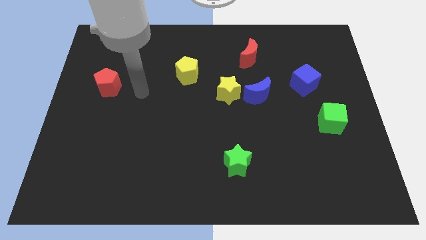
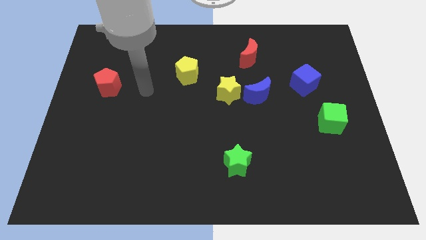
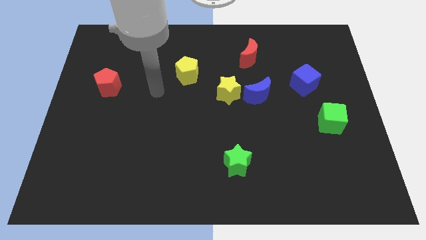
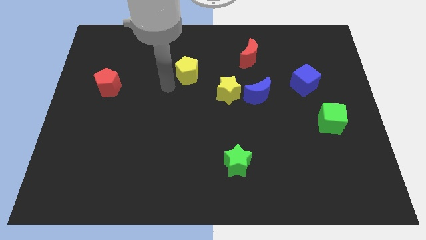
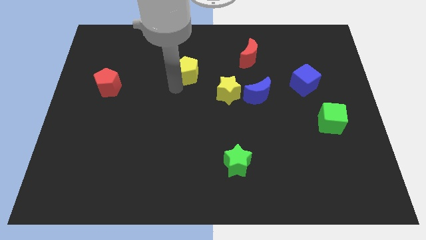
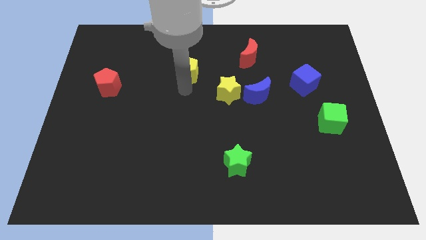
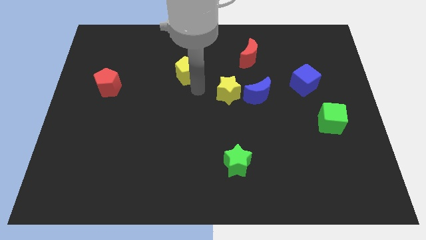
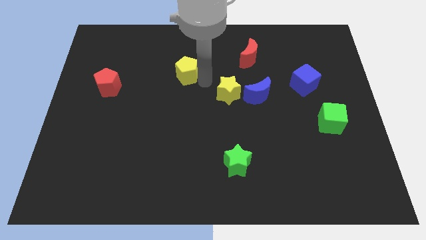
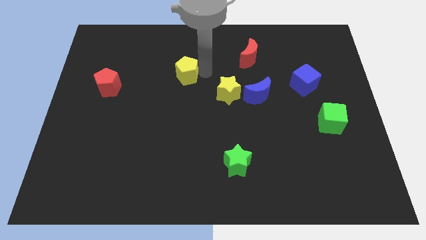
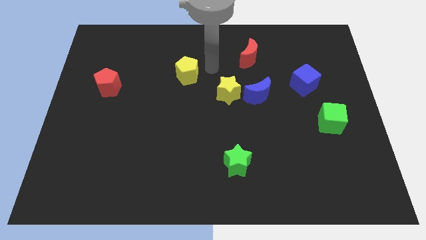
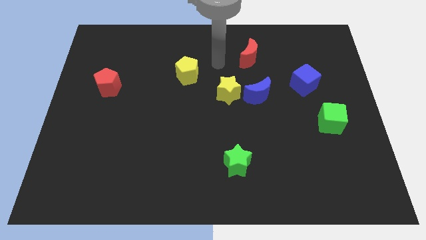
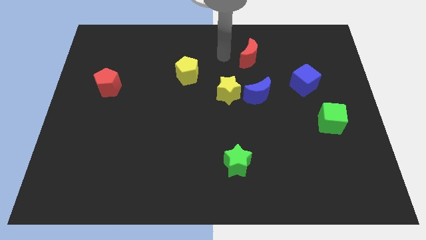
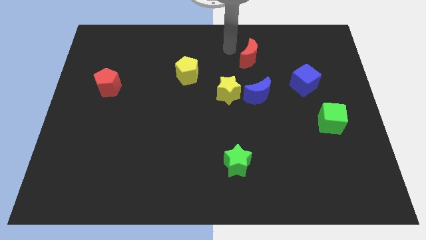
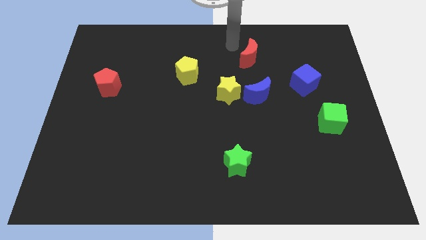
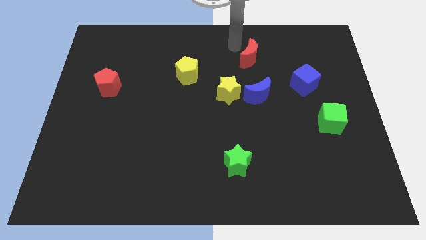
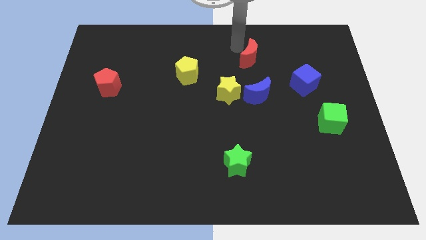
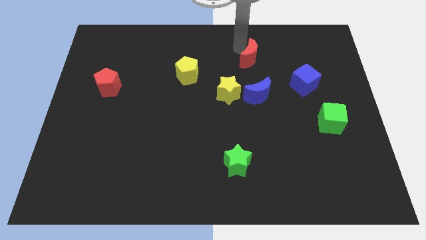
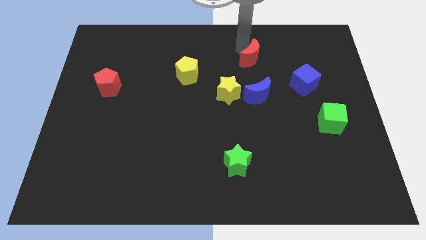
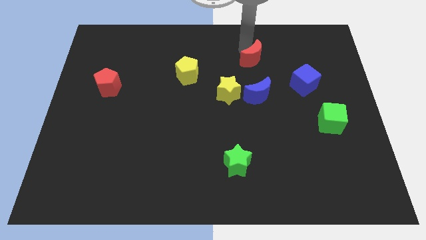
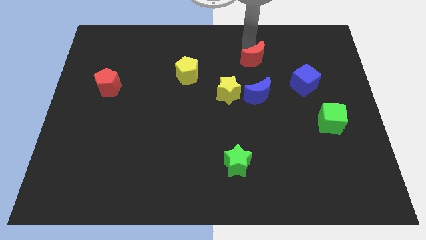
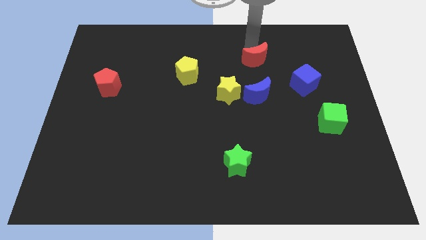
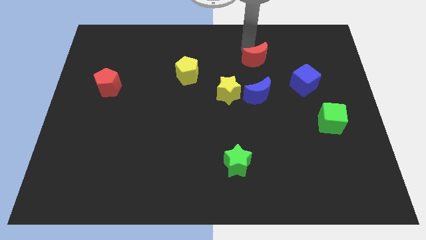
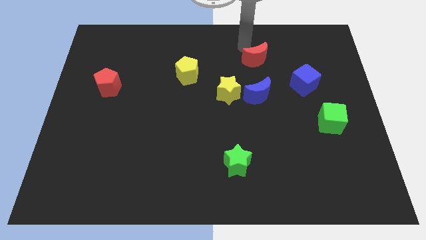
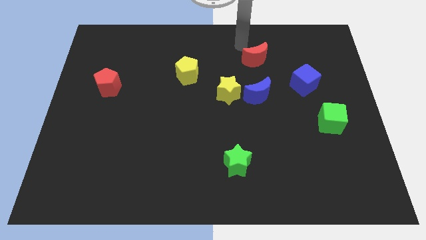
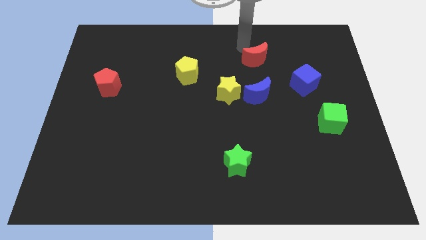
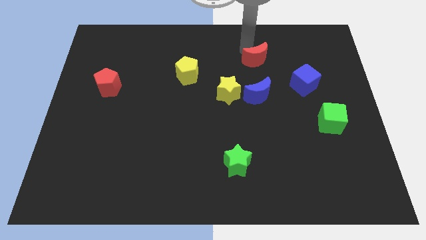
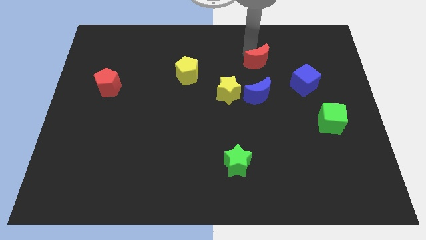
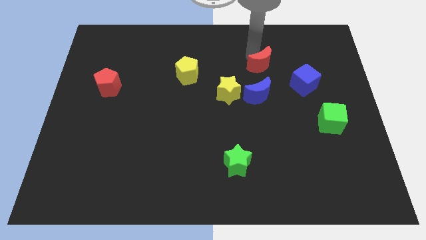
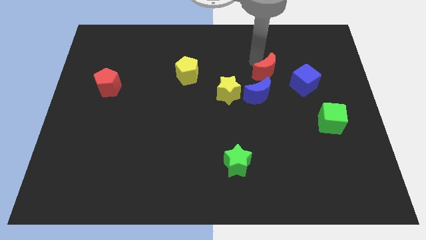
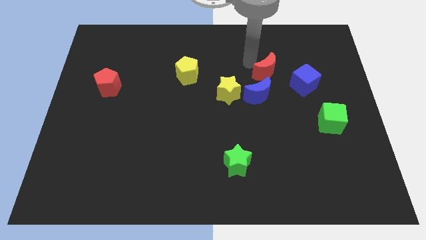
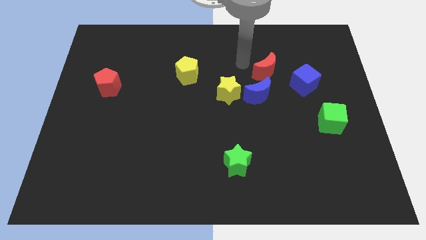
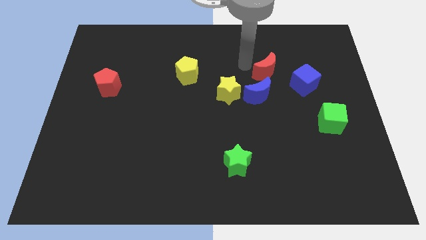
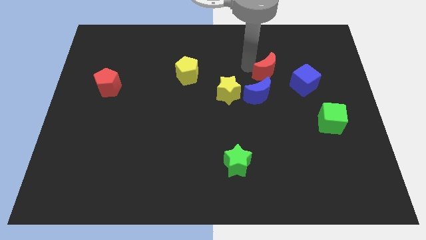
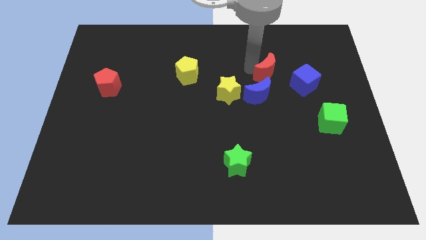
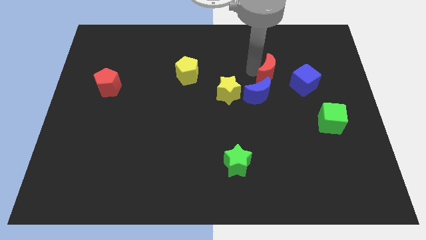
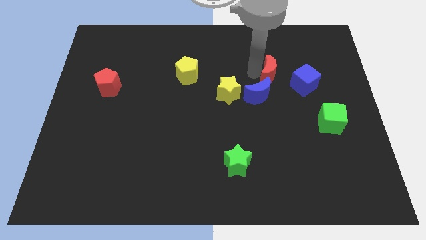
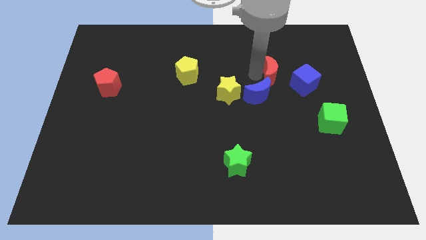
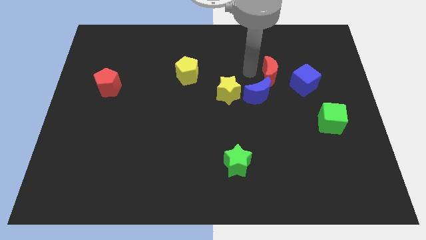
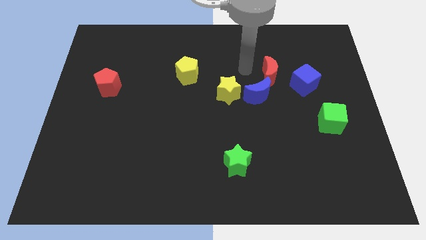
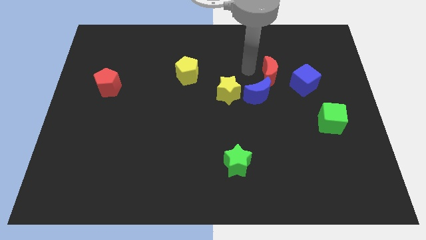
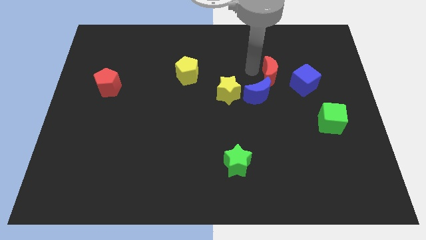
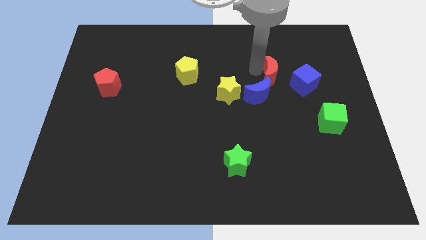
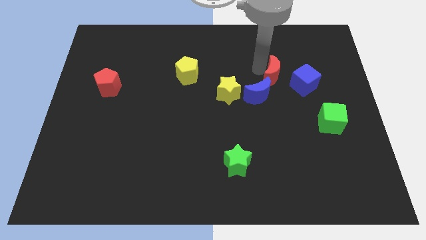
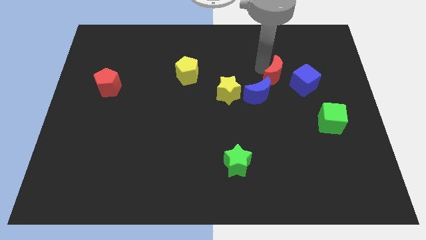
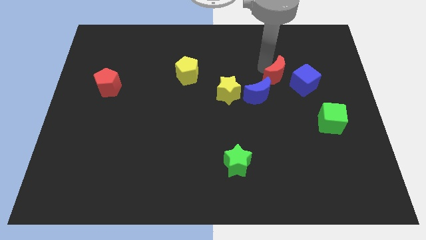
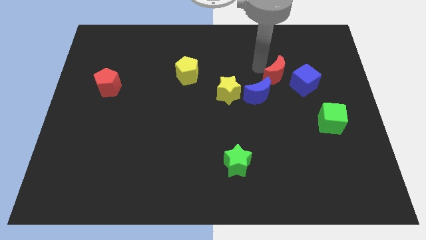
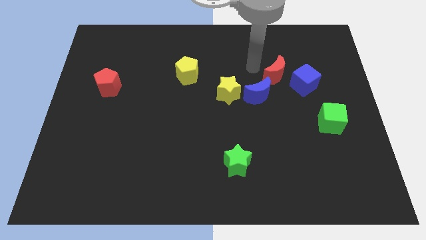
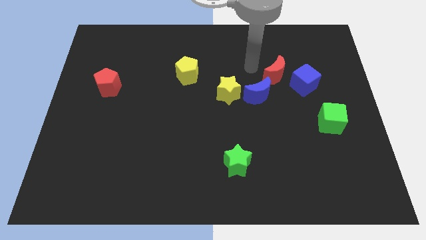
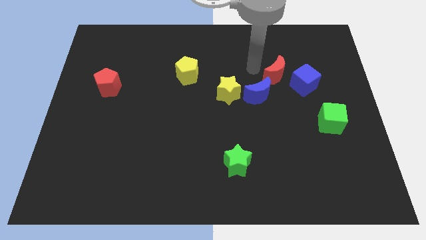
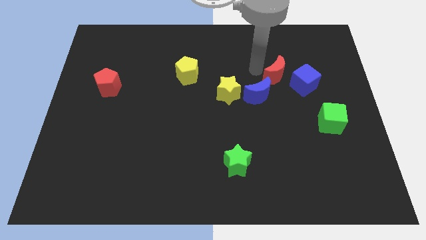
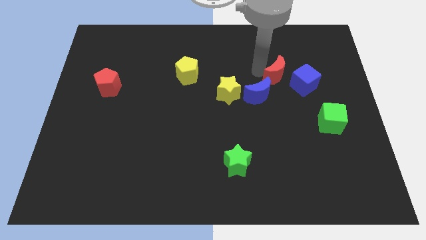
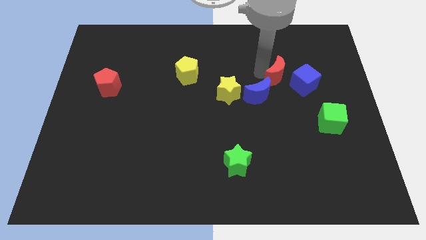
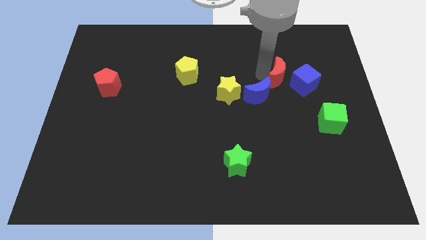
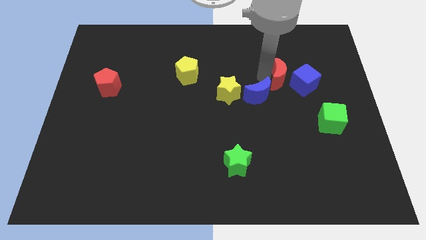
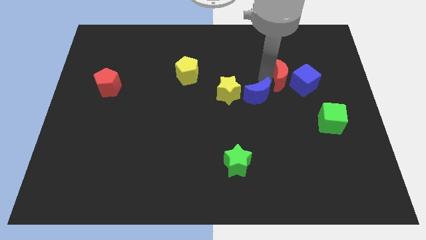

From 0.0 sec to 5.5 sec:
push the red moon next to the blue cube

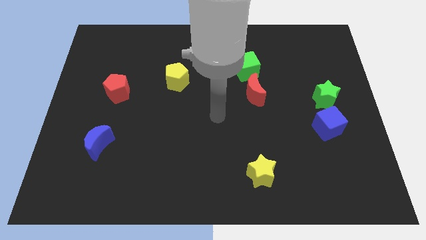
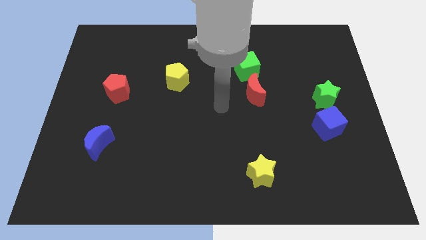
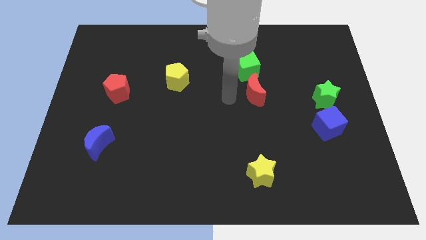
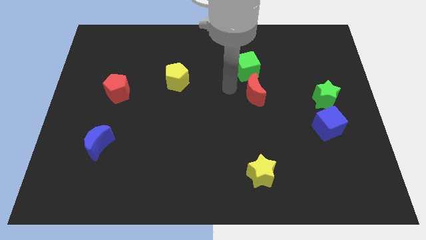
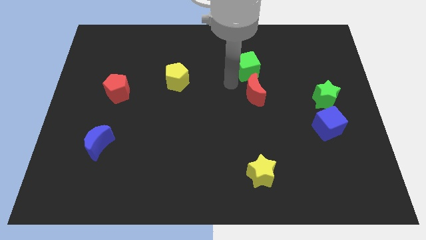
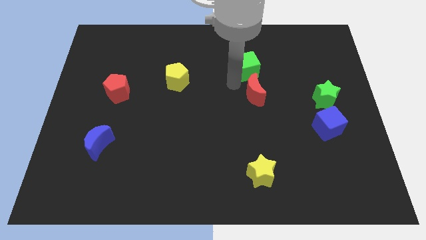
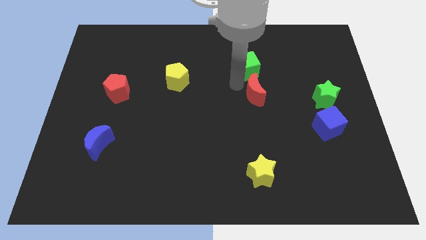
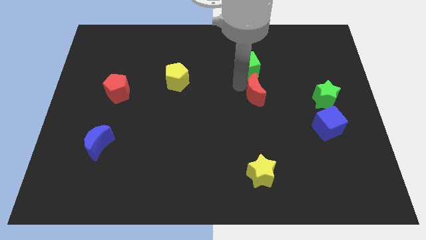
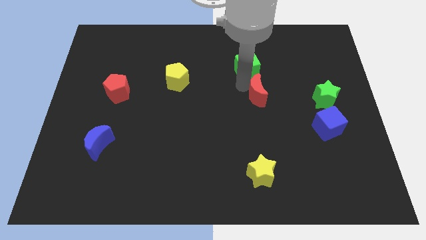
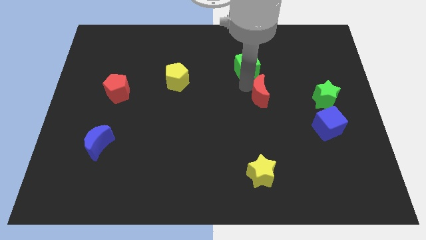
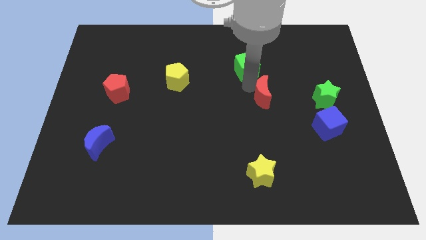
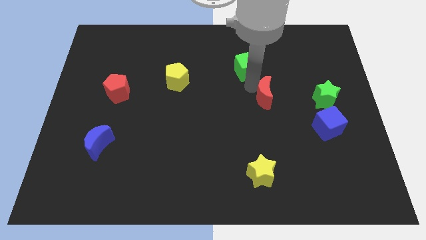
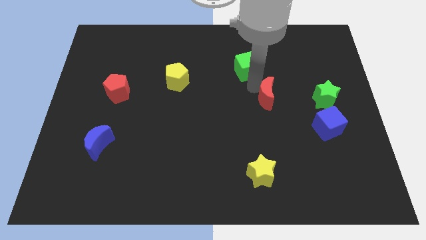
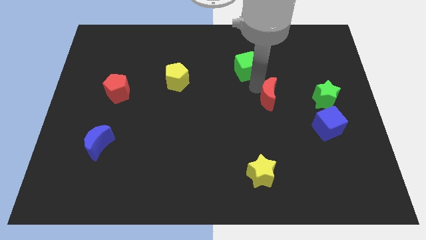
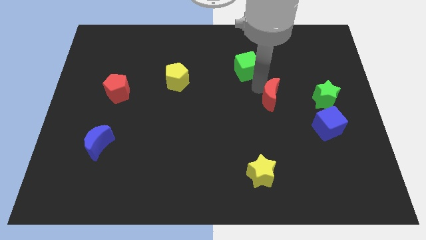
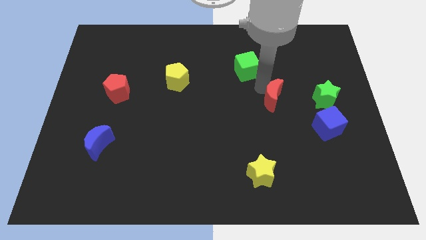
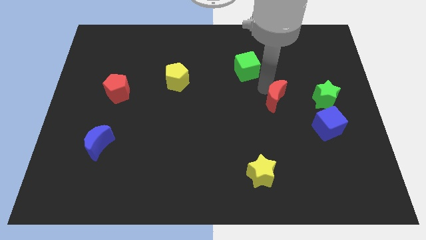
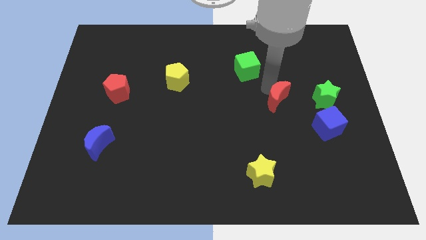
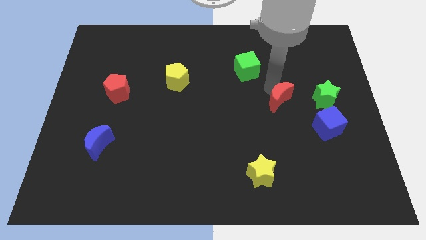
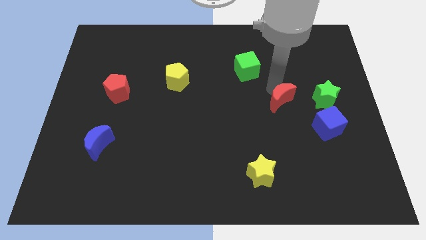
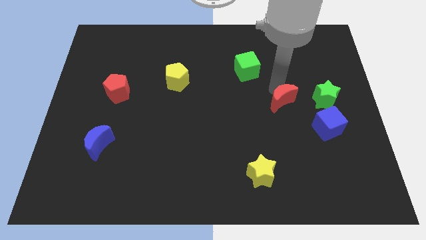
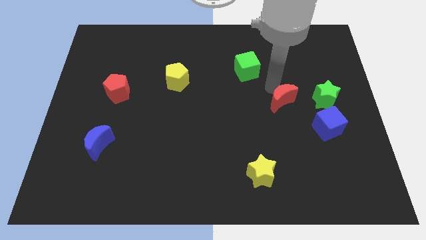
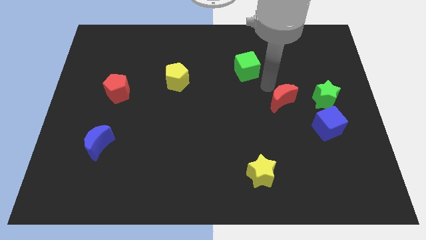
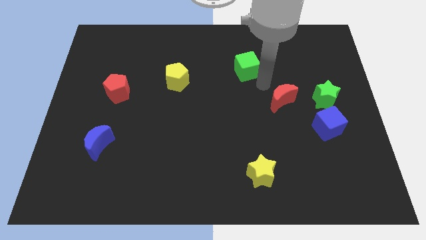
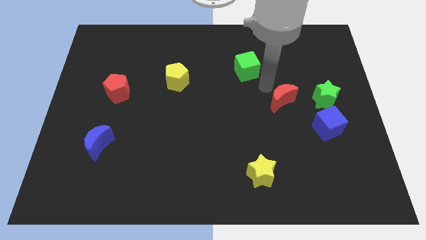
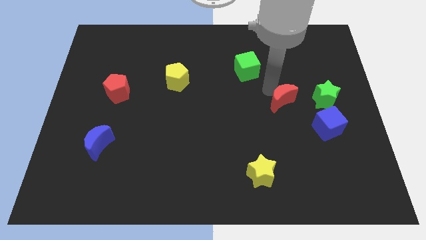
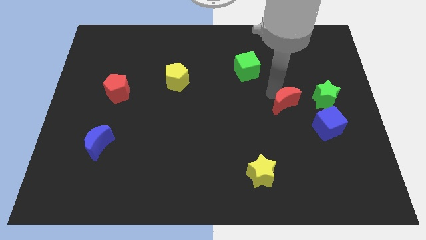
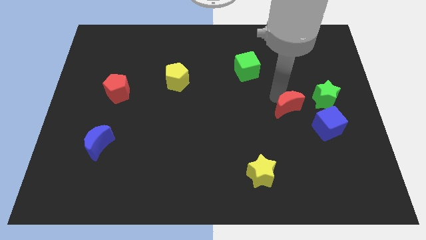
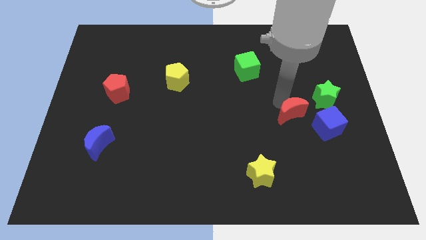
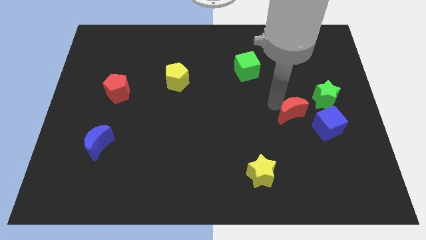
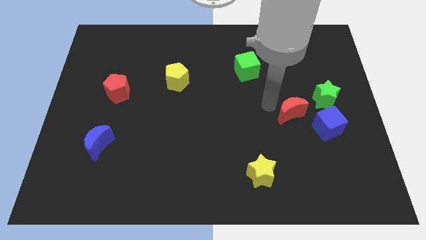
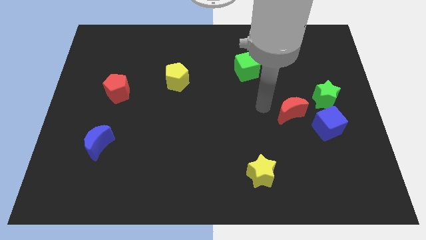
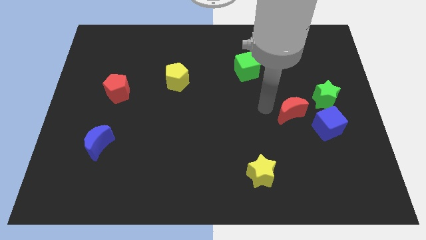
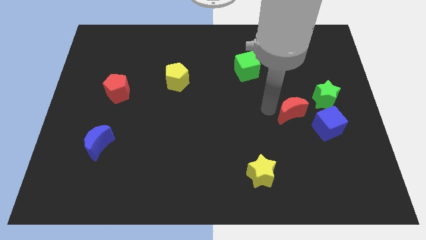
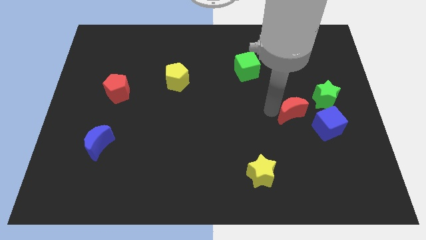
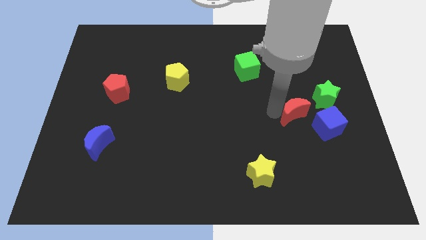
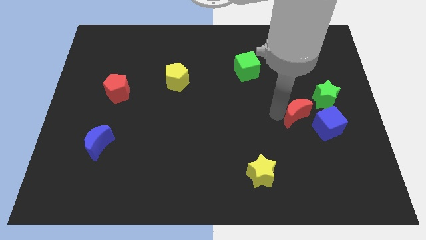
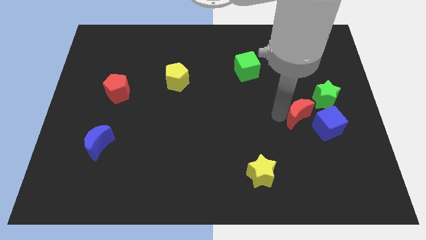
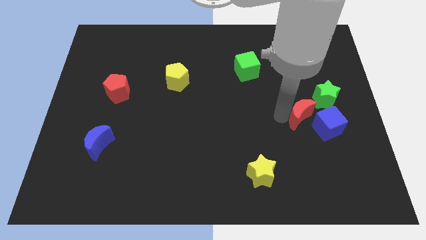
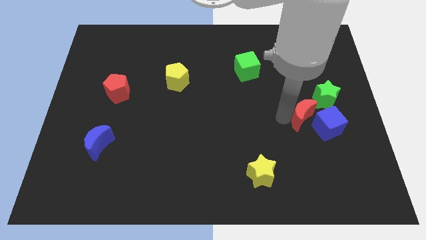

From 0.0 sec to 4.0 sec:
move the red moon towards the blue cube
